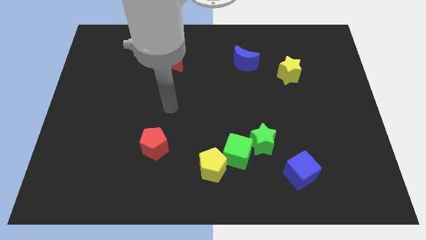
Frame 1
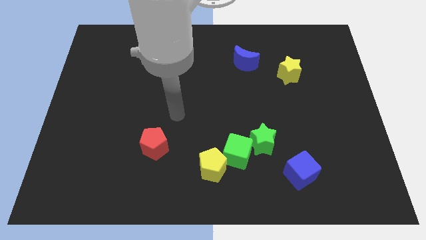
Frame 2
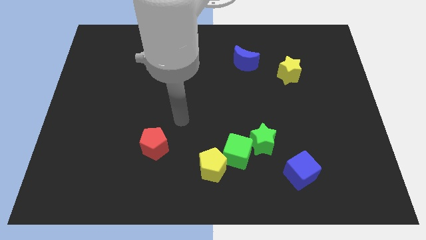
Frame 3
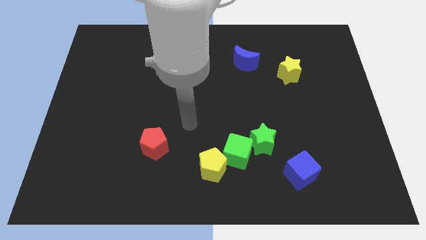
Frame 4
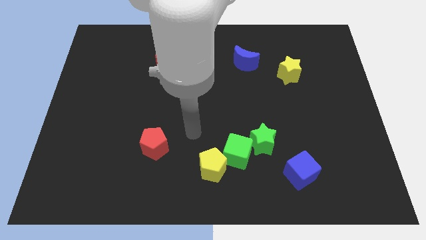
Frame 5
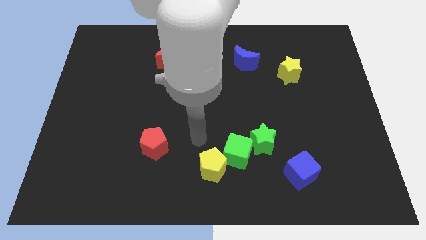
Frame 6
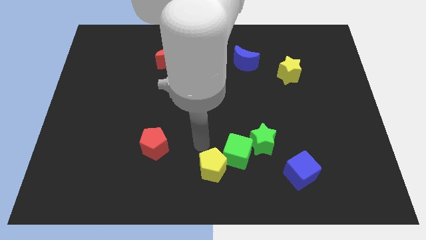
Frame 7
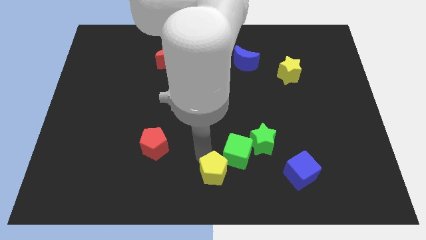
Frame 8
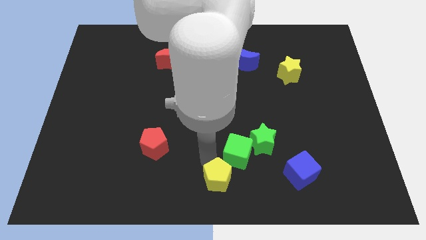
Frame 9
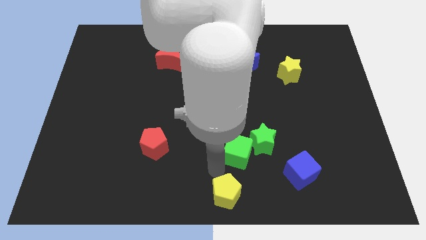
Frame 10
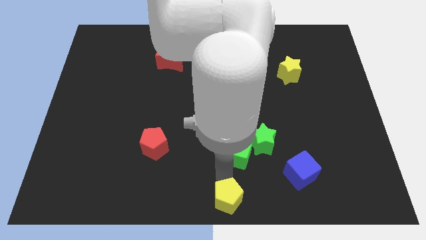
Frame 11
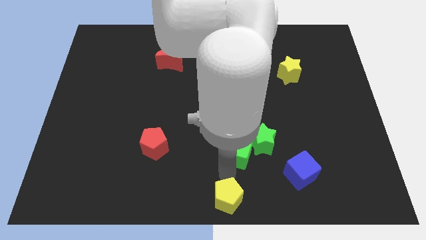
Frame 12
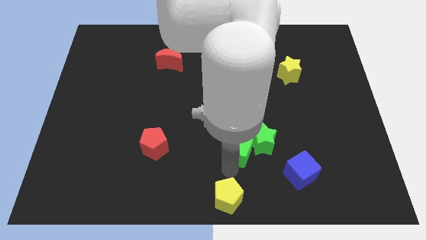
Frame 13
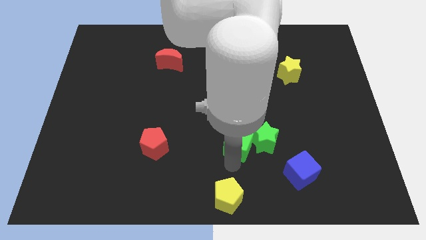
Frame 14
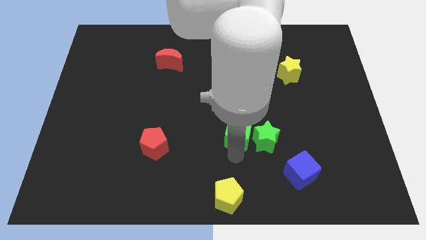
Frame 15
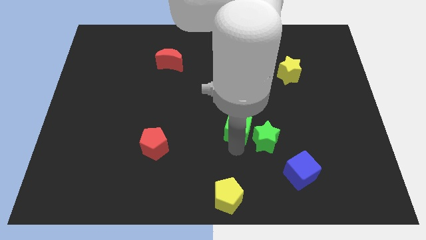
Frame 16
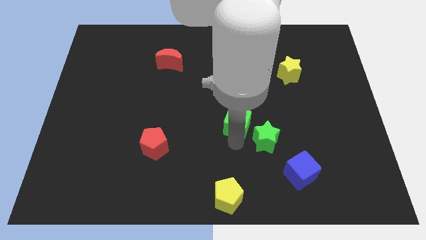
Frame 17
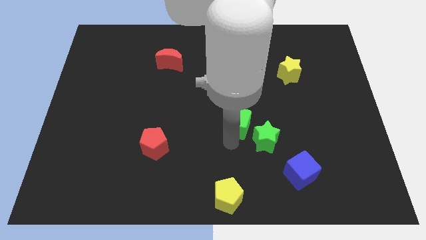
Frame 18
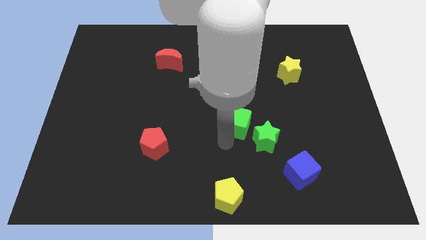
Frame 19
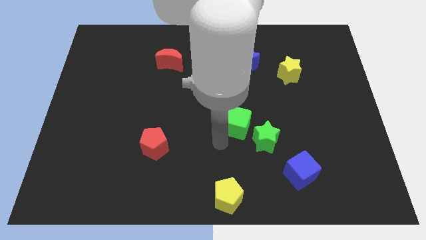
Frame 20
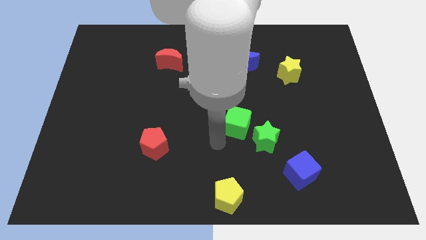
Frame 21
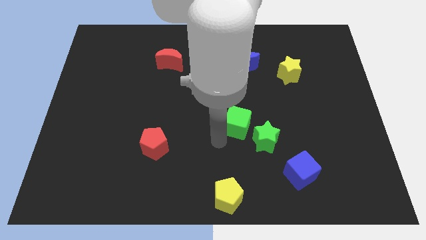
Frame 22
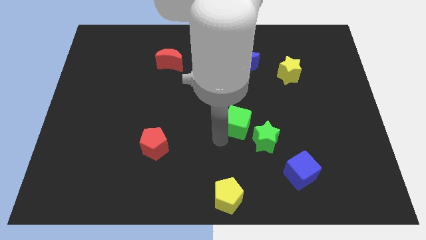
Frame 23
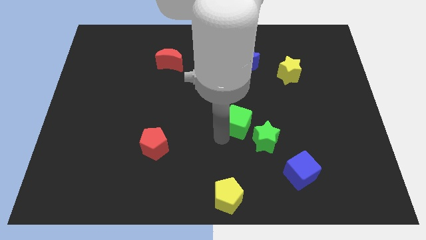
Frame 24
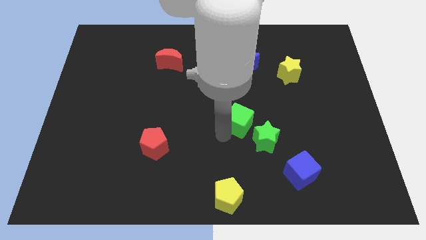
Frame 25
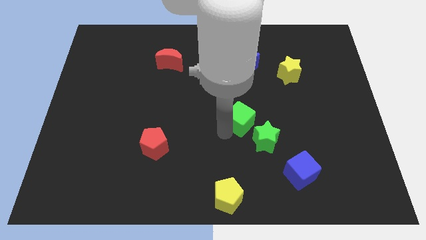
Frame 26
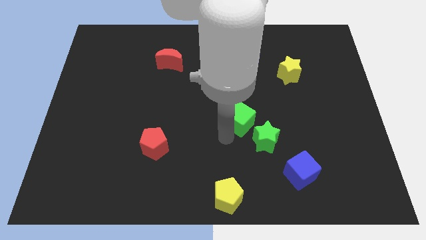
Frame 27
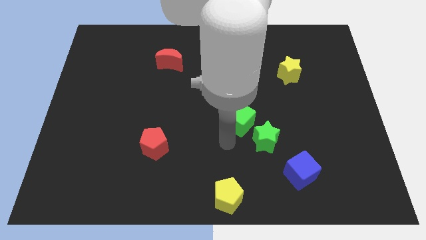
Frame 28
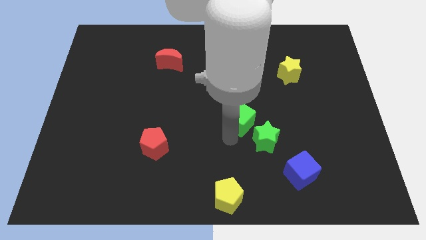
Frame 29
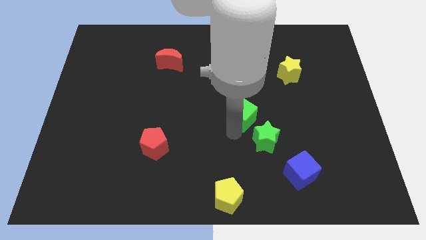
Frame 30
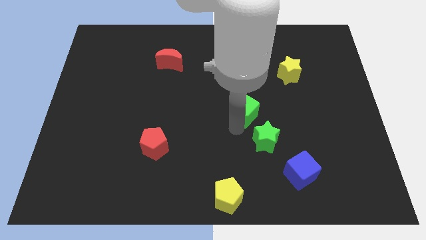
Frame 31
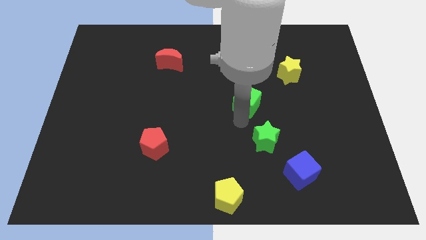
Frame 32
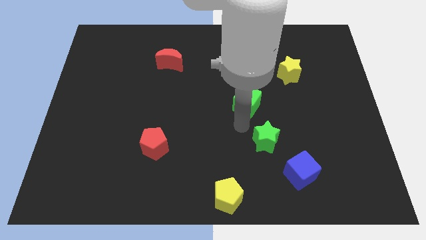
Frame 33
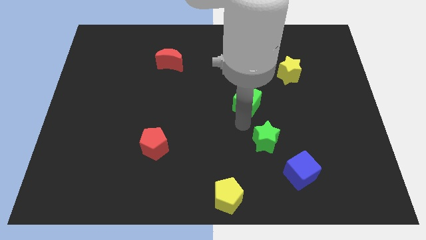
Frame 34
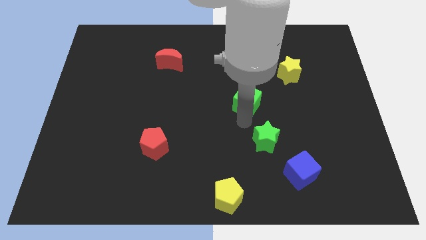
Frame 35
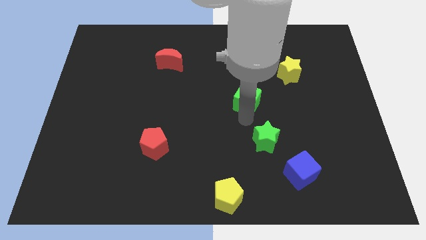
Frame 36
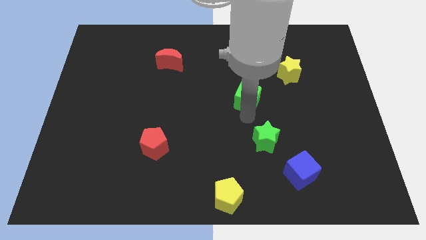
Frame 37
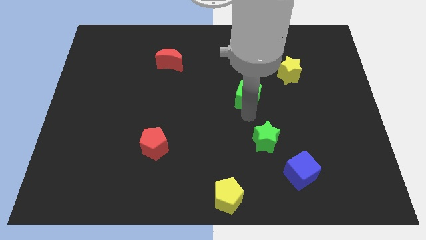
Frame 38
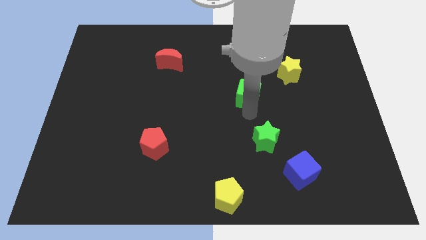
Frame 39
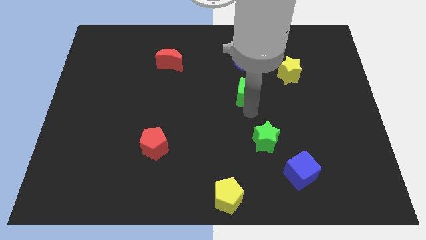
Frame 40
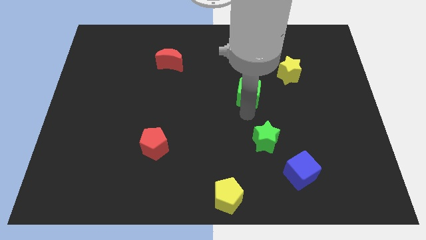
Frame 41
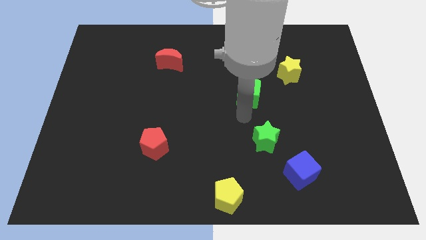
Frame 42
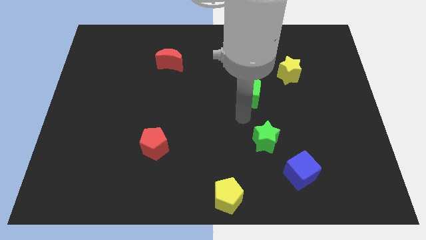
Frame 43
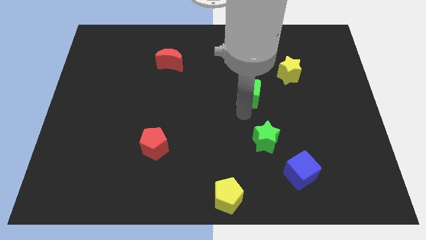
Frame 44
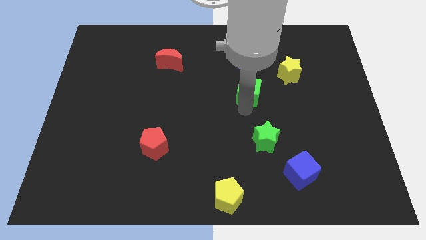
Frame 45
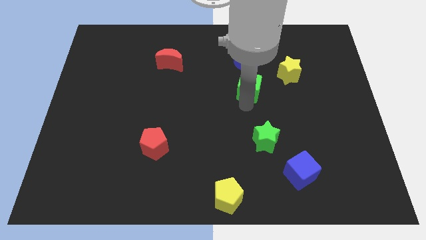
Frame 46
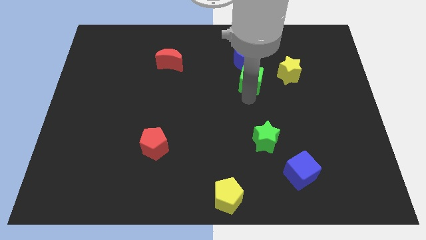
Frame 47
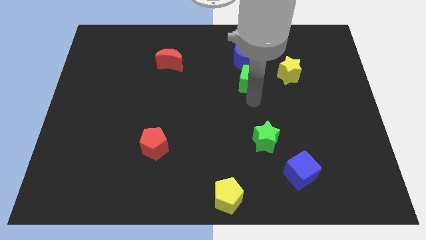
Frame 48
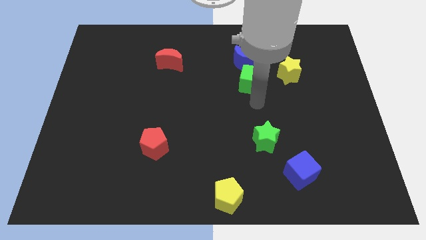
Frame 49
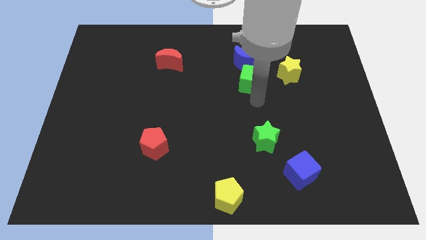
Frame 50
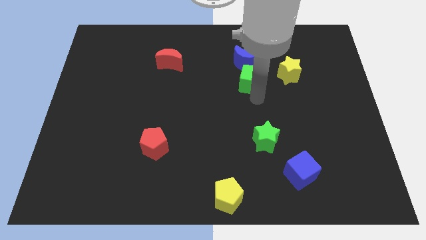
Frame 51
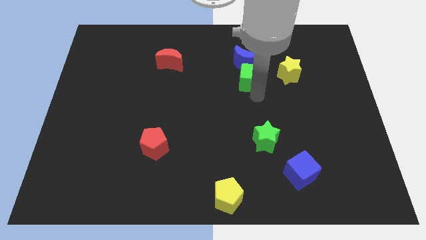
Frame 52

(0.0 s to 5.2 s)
slide the green cube to the blue moon

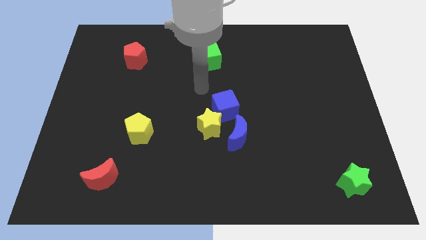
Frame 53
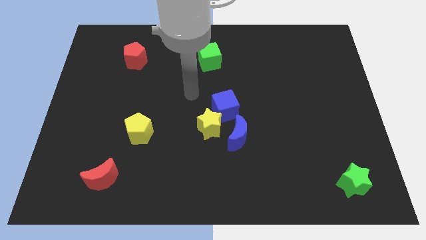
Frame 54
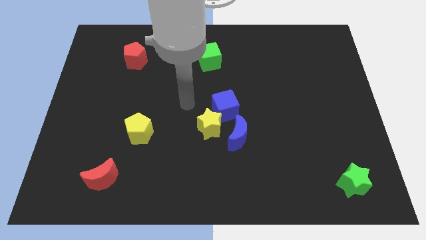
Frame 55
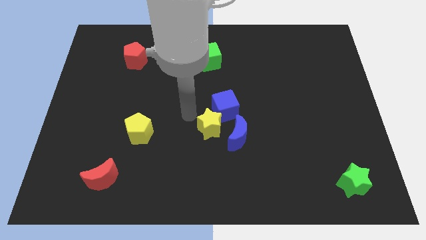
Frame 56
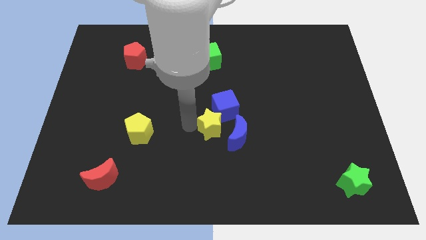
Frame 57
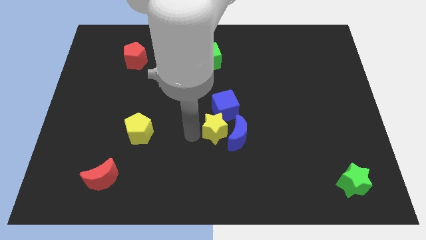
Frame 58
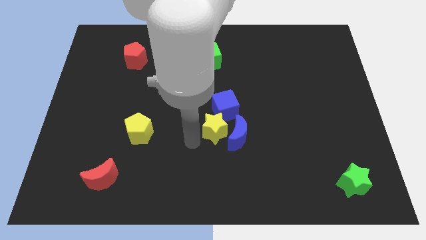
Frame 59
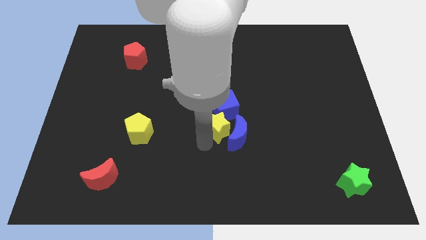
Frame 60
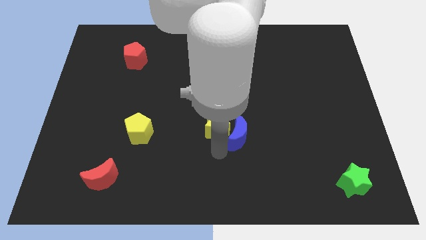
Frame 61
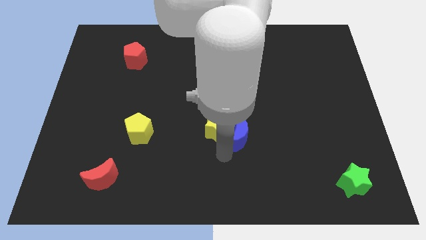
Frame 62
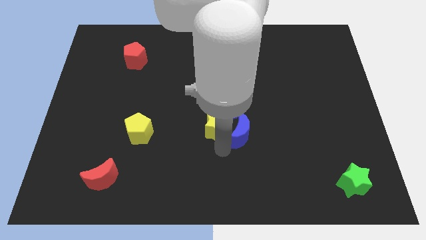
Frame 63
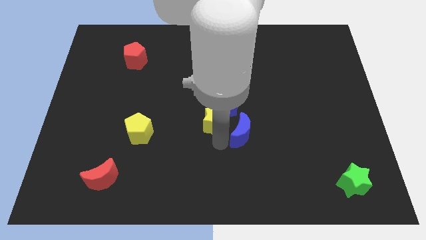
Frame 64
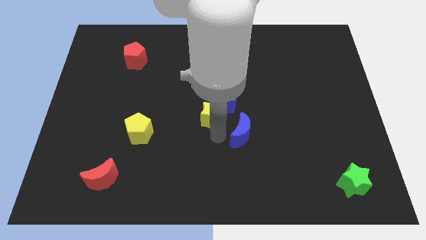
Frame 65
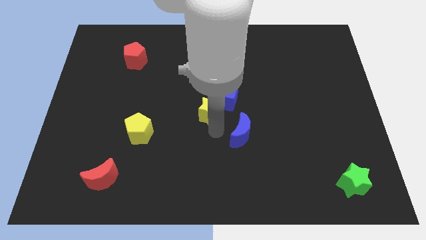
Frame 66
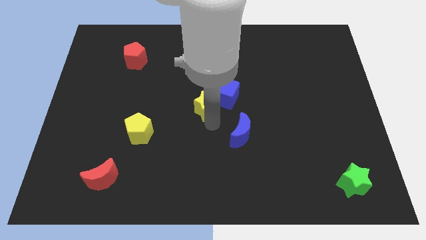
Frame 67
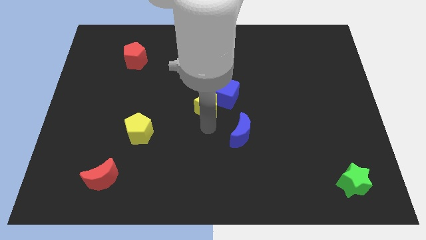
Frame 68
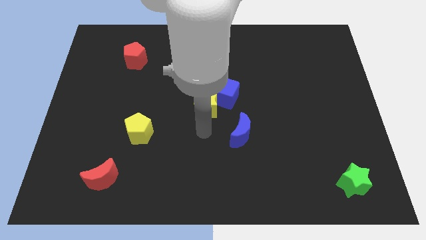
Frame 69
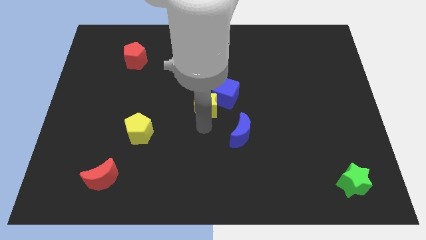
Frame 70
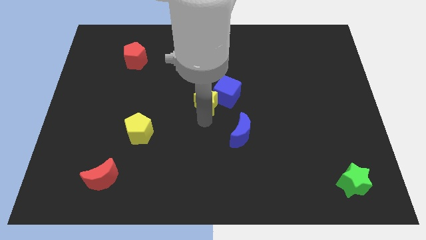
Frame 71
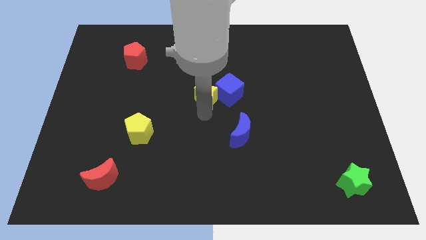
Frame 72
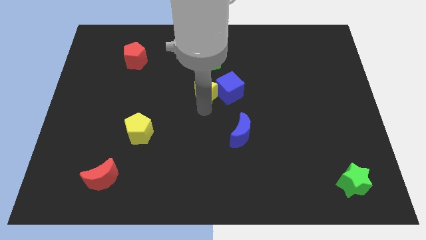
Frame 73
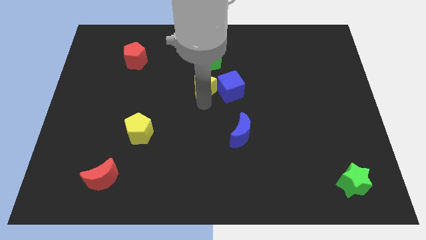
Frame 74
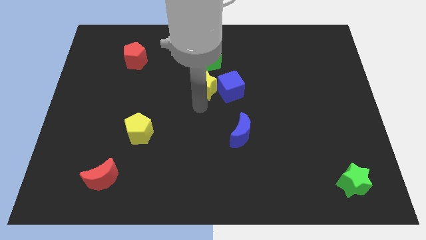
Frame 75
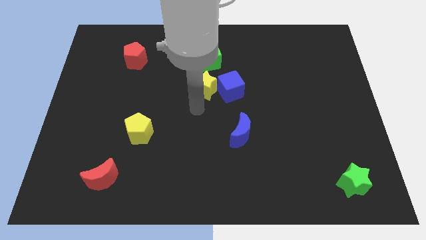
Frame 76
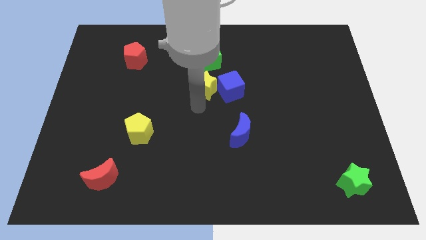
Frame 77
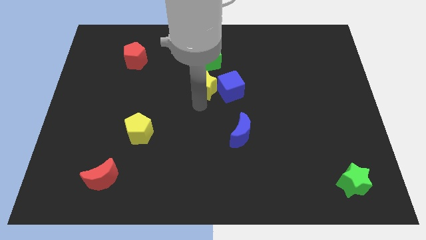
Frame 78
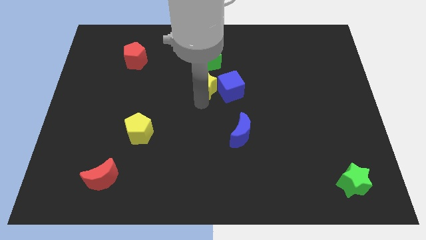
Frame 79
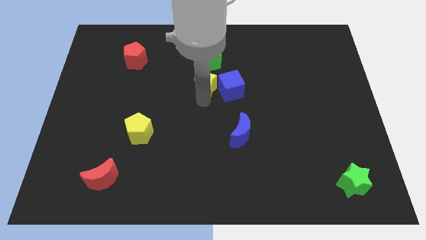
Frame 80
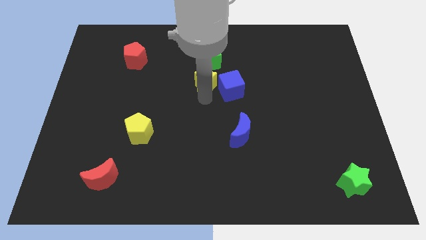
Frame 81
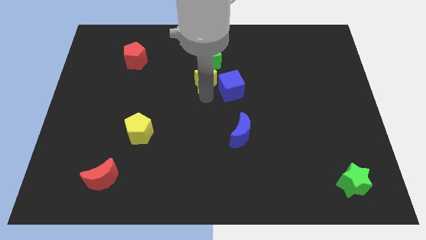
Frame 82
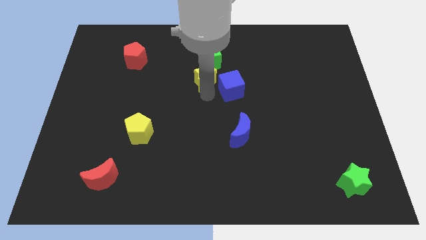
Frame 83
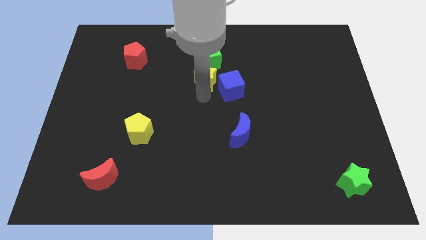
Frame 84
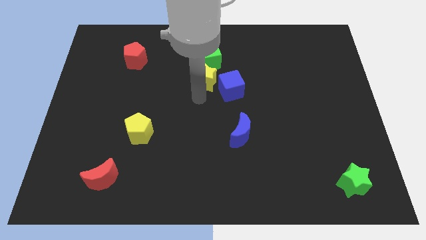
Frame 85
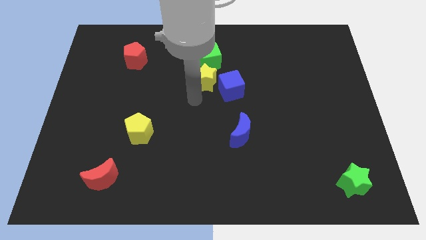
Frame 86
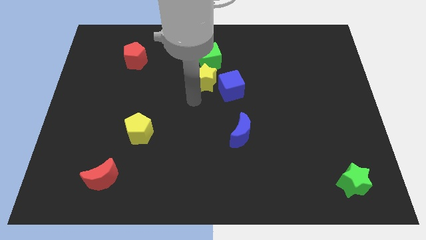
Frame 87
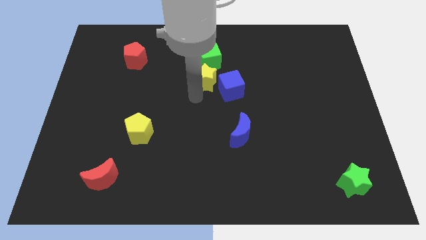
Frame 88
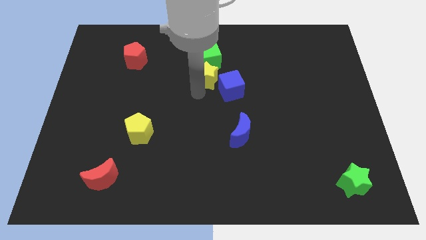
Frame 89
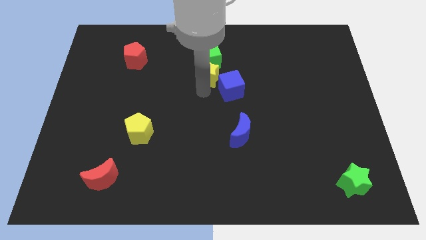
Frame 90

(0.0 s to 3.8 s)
slide the yellow star close to the green cube
